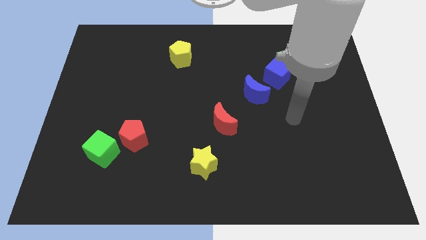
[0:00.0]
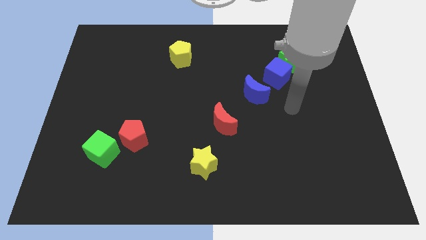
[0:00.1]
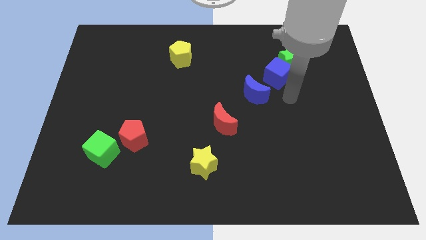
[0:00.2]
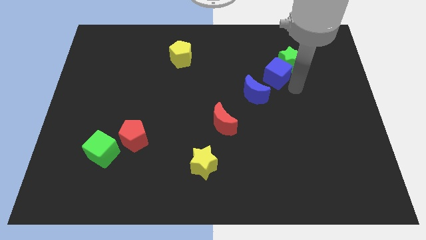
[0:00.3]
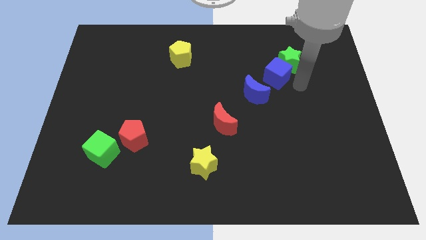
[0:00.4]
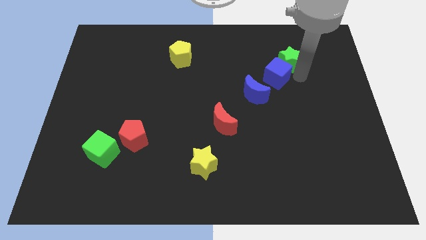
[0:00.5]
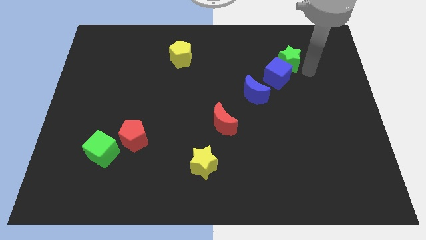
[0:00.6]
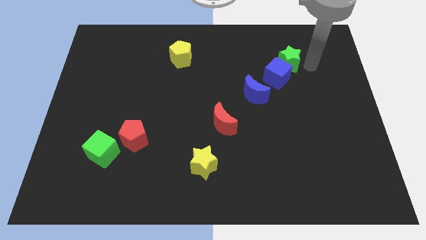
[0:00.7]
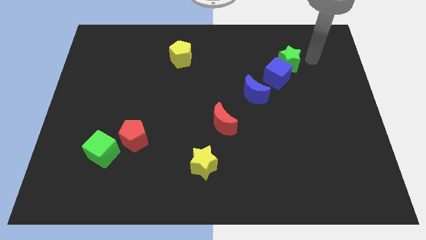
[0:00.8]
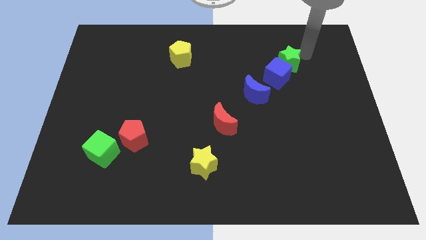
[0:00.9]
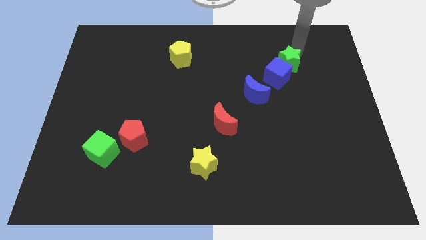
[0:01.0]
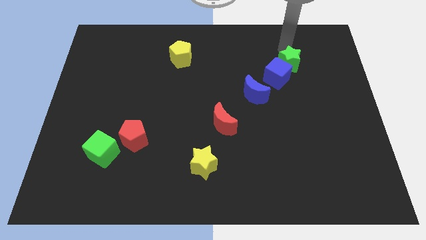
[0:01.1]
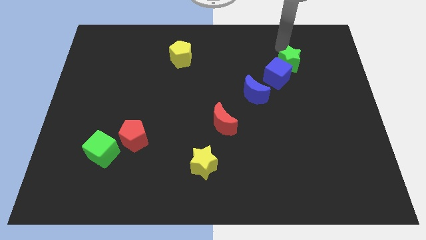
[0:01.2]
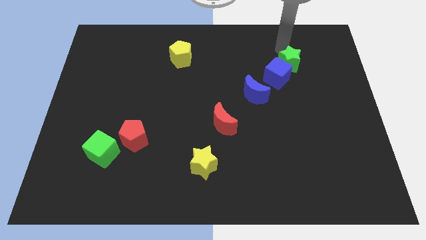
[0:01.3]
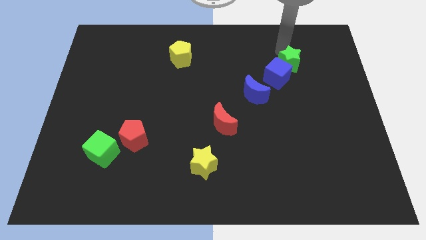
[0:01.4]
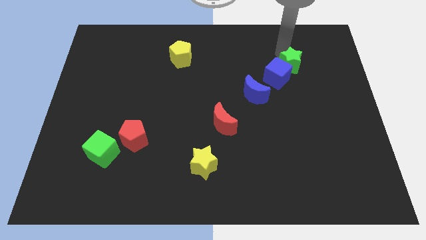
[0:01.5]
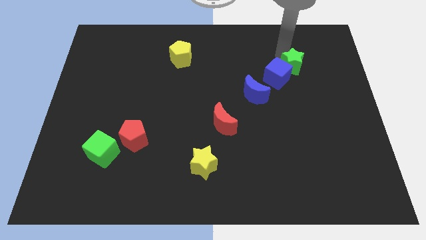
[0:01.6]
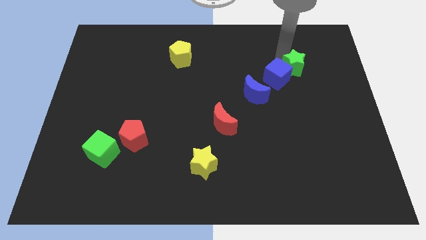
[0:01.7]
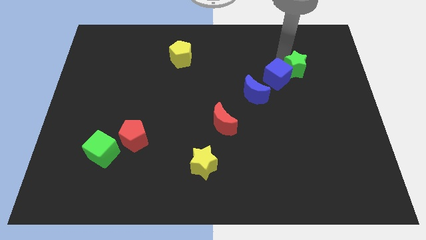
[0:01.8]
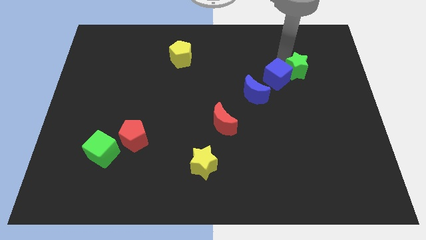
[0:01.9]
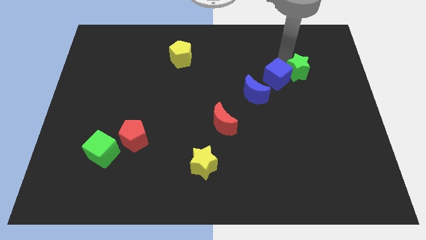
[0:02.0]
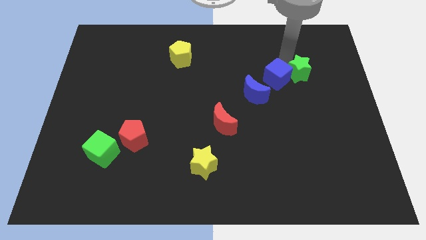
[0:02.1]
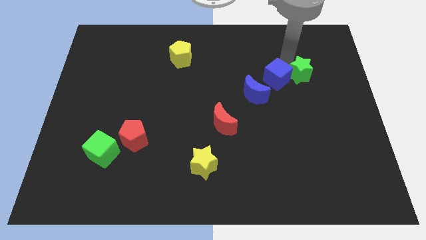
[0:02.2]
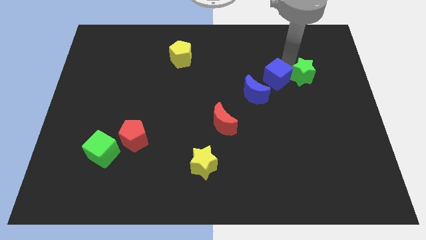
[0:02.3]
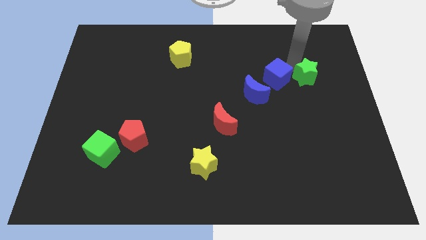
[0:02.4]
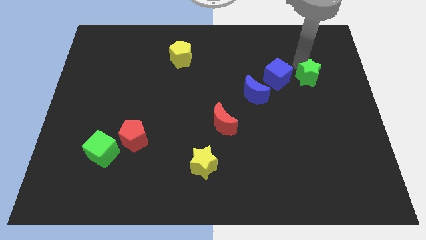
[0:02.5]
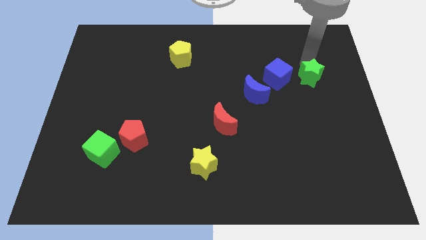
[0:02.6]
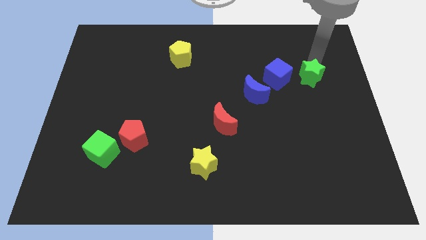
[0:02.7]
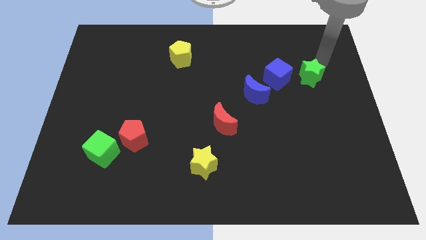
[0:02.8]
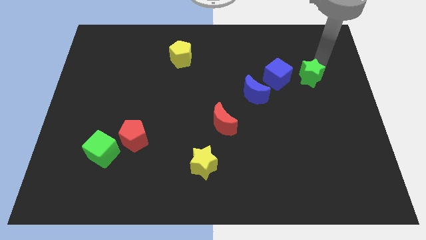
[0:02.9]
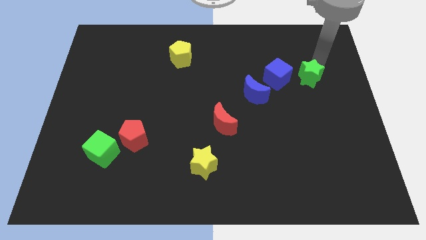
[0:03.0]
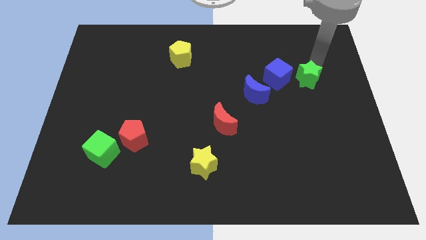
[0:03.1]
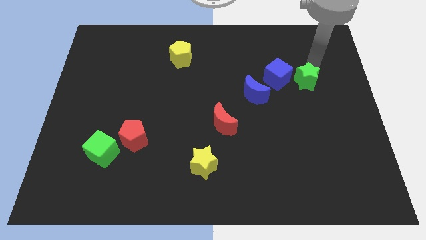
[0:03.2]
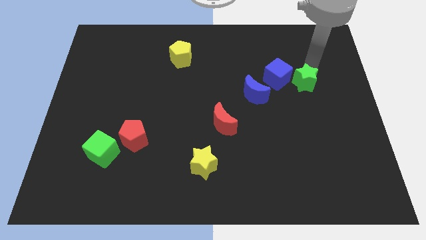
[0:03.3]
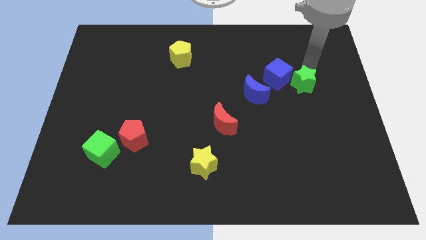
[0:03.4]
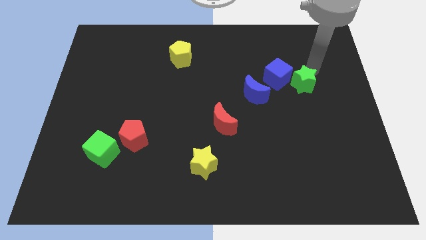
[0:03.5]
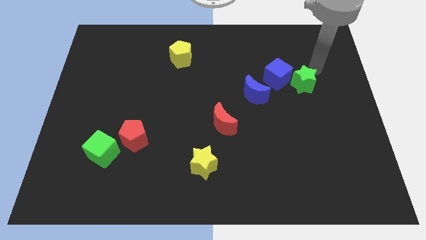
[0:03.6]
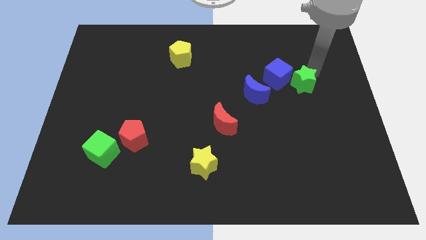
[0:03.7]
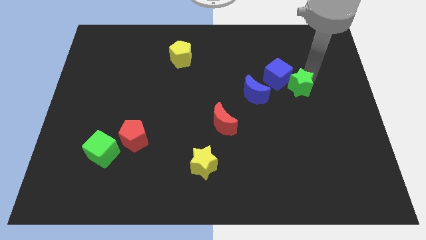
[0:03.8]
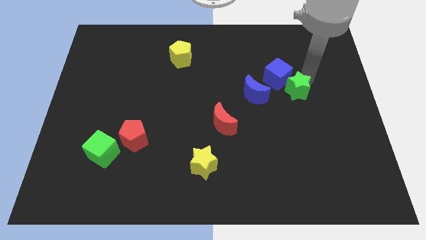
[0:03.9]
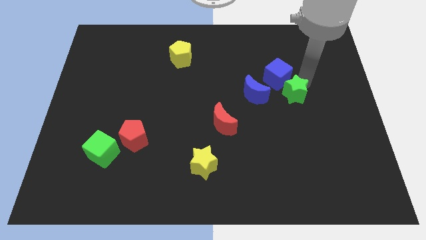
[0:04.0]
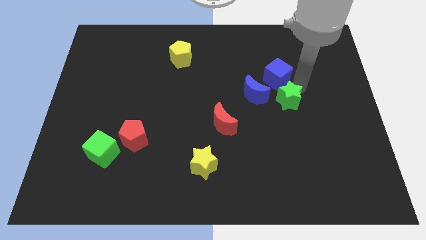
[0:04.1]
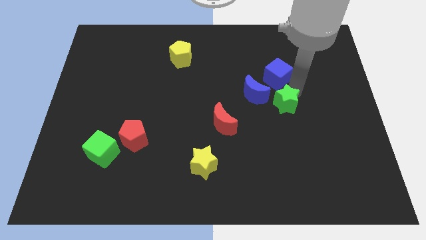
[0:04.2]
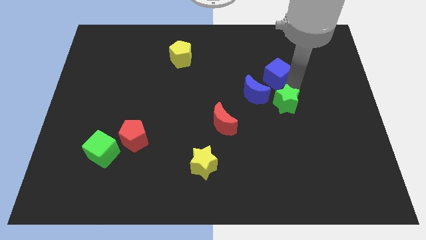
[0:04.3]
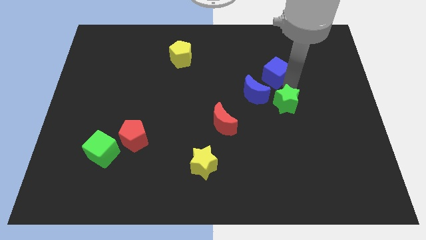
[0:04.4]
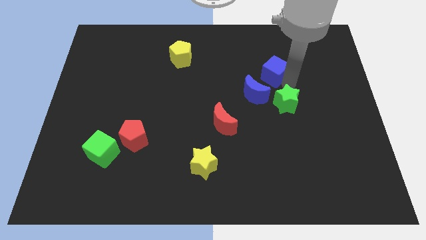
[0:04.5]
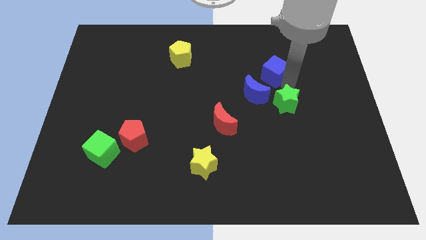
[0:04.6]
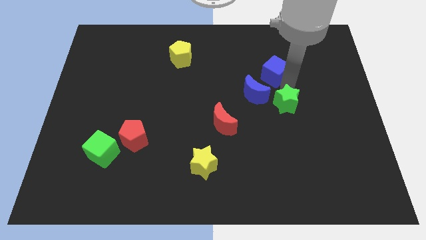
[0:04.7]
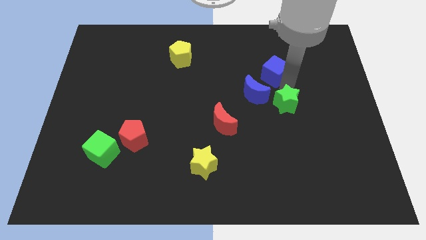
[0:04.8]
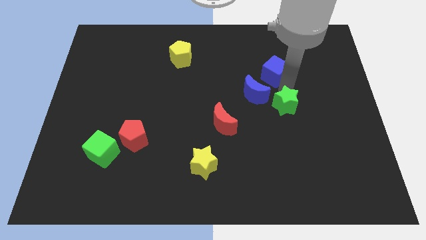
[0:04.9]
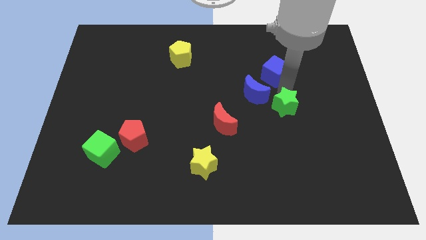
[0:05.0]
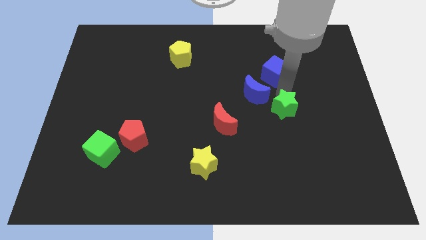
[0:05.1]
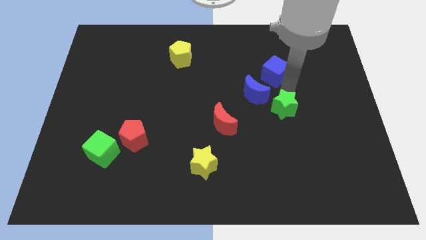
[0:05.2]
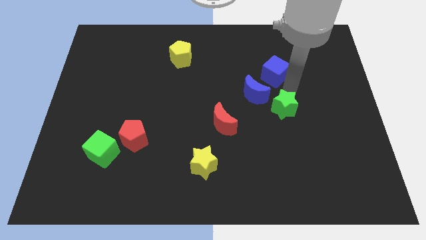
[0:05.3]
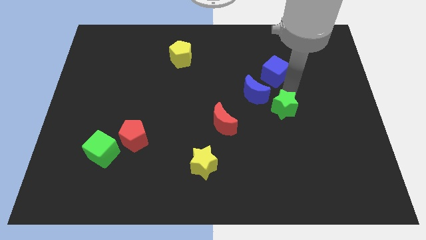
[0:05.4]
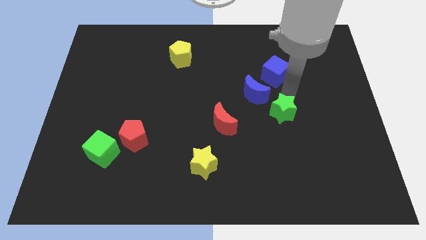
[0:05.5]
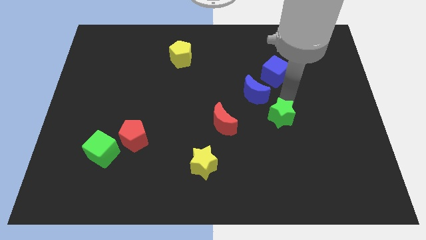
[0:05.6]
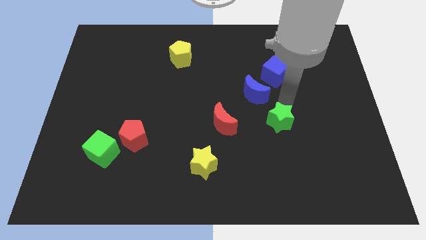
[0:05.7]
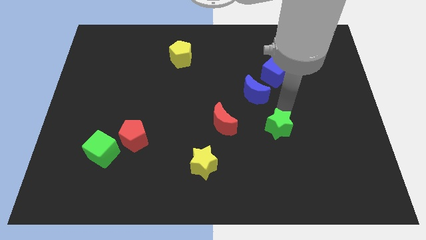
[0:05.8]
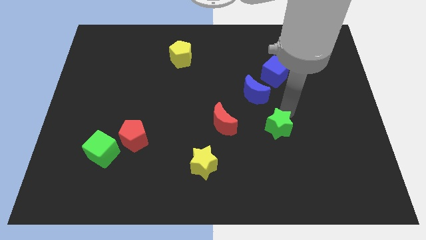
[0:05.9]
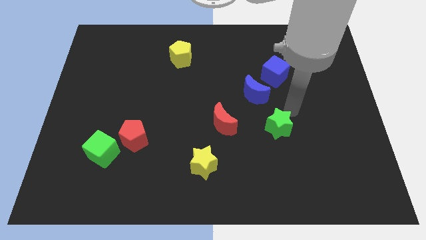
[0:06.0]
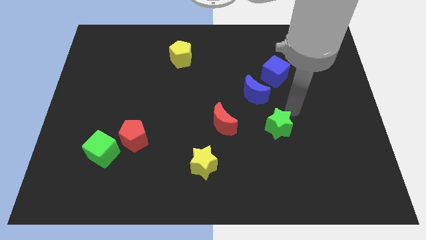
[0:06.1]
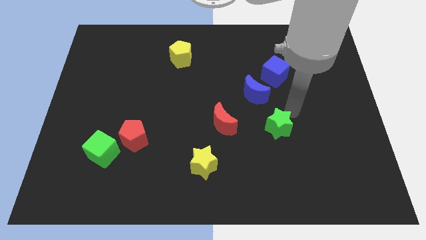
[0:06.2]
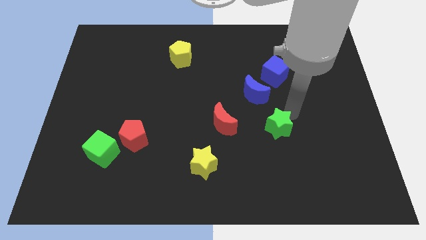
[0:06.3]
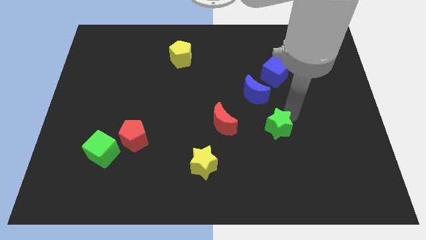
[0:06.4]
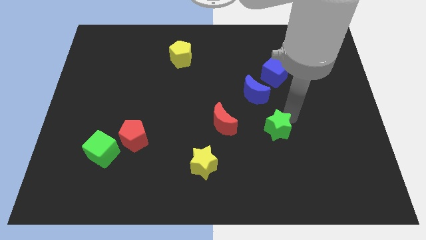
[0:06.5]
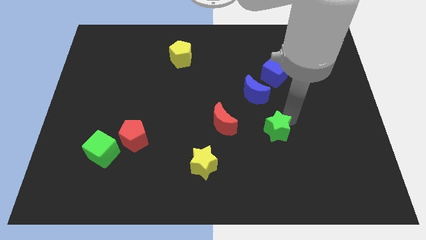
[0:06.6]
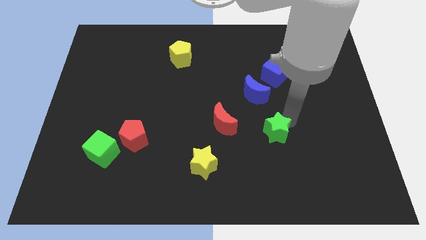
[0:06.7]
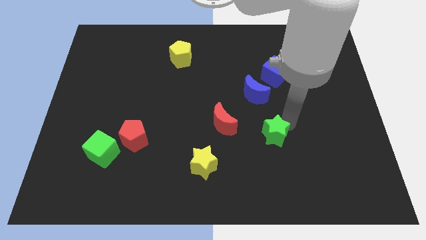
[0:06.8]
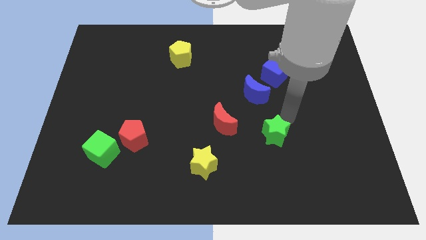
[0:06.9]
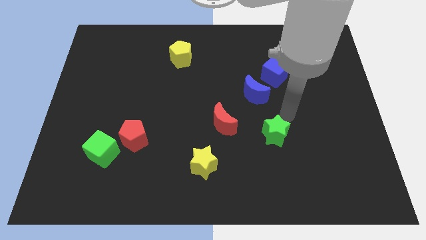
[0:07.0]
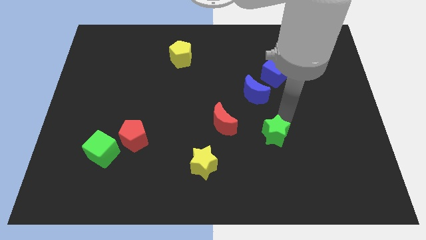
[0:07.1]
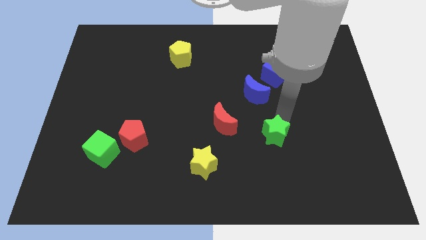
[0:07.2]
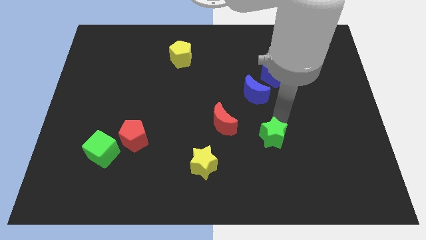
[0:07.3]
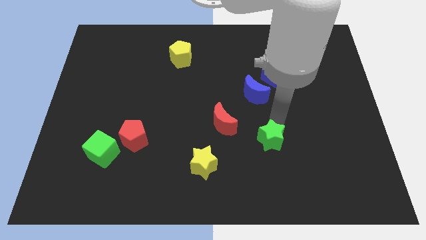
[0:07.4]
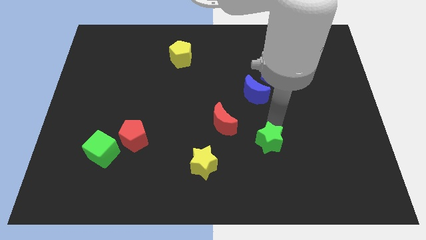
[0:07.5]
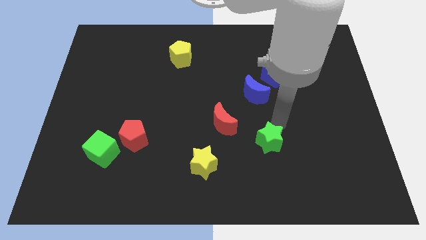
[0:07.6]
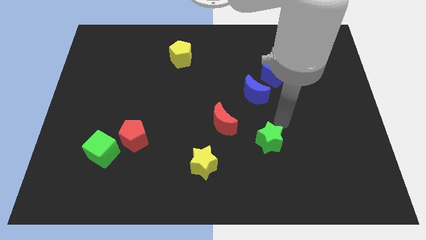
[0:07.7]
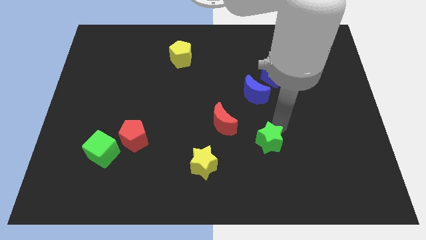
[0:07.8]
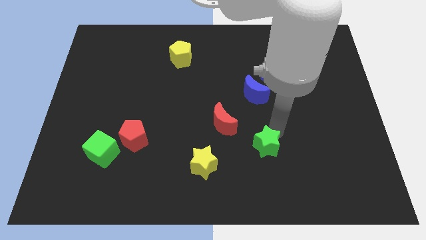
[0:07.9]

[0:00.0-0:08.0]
slide the green star right of the yellow star

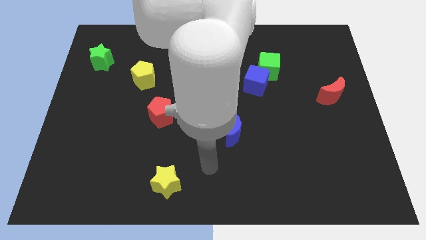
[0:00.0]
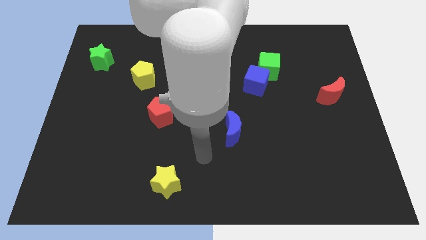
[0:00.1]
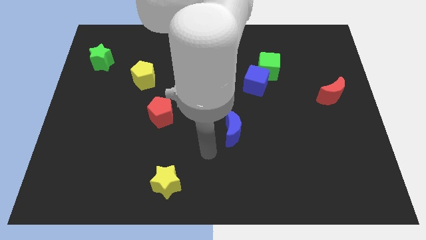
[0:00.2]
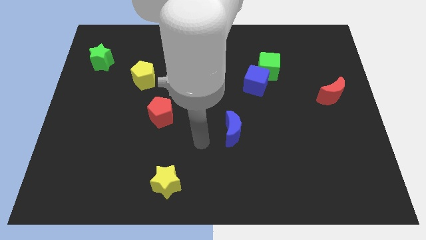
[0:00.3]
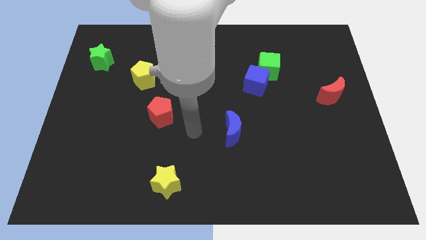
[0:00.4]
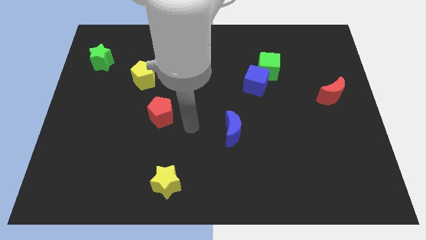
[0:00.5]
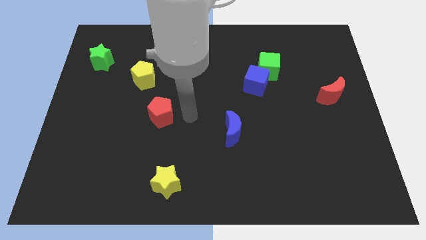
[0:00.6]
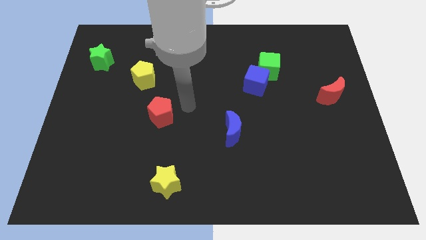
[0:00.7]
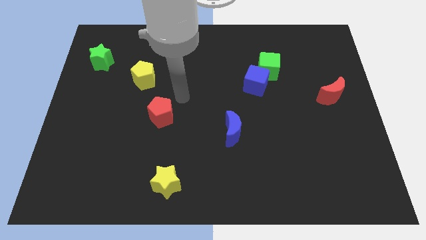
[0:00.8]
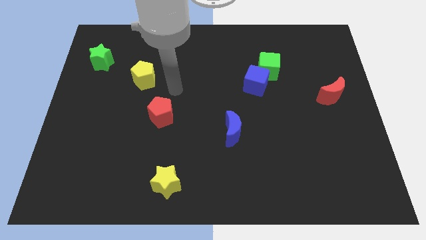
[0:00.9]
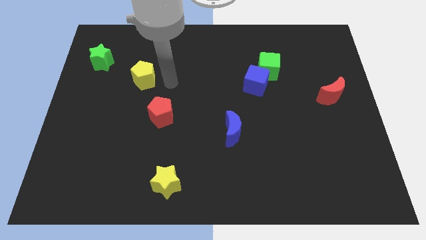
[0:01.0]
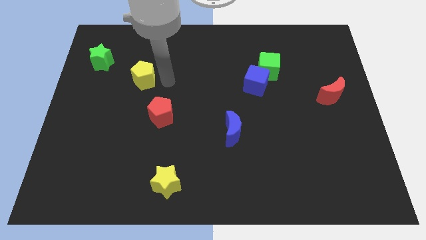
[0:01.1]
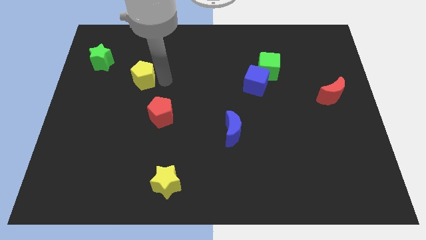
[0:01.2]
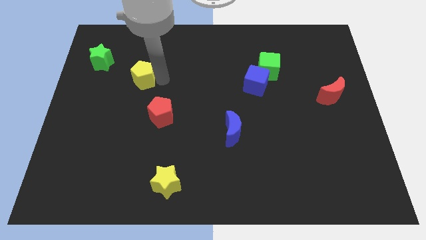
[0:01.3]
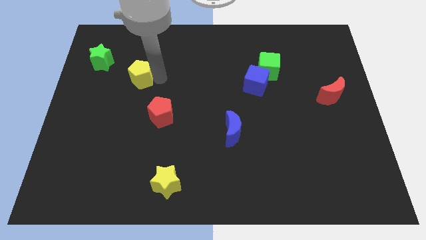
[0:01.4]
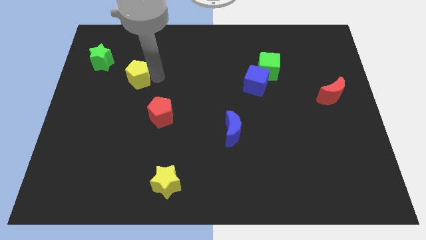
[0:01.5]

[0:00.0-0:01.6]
move the yellow pentagon to the bottom right side of the green star
